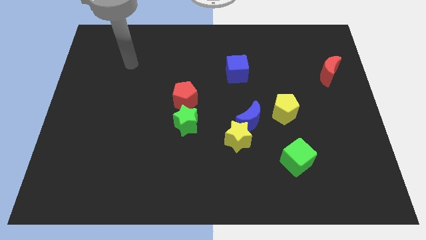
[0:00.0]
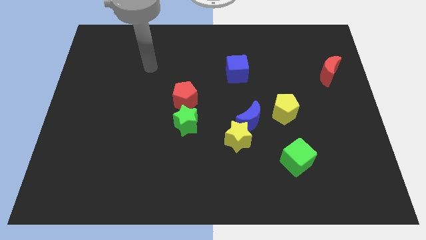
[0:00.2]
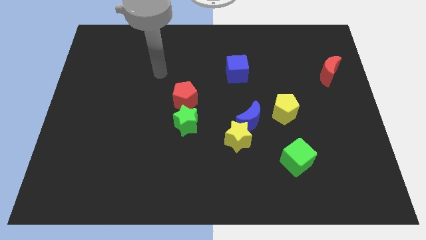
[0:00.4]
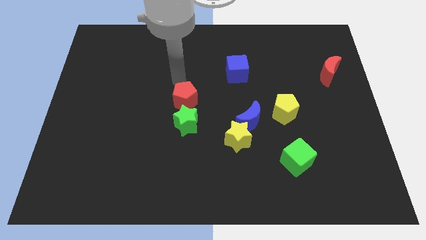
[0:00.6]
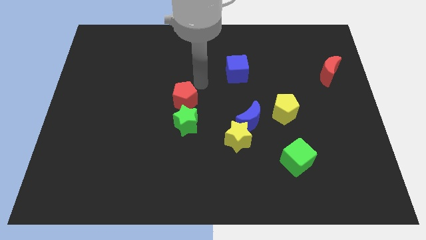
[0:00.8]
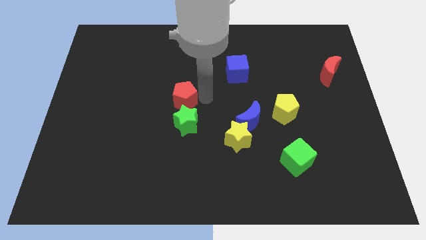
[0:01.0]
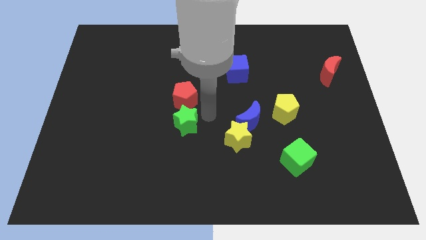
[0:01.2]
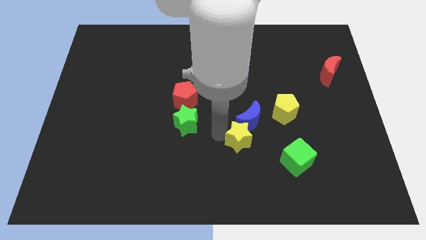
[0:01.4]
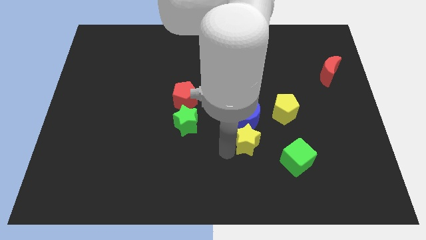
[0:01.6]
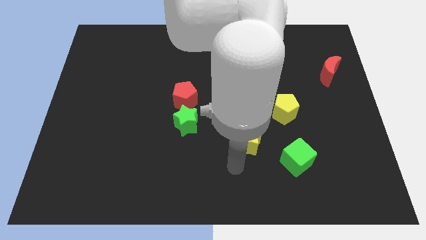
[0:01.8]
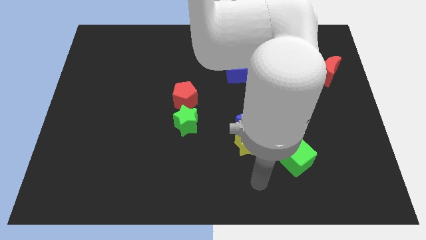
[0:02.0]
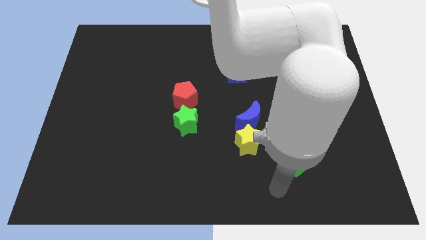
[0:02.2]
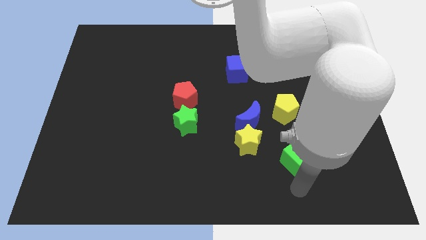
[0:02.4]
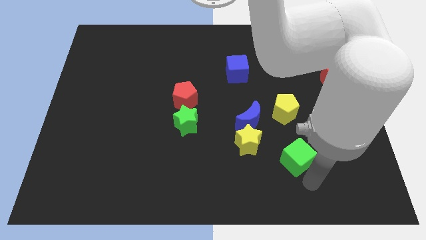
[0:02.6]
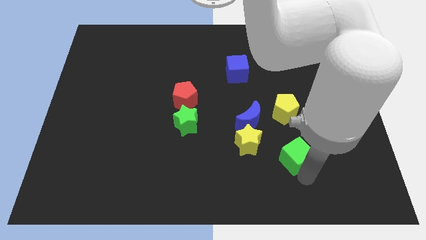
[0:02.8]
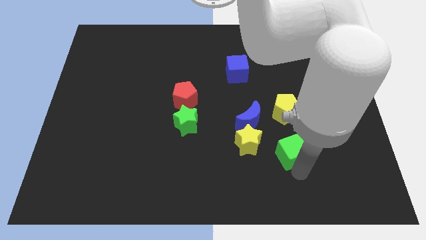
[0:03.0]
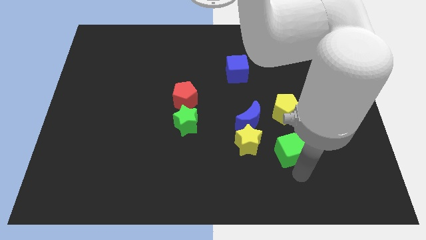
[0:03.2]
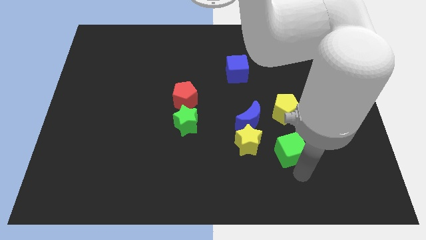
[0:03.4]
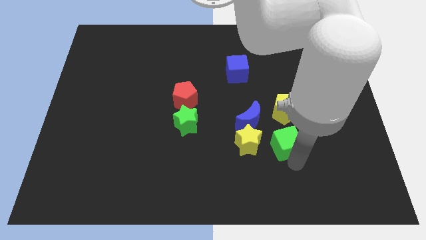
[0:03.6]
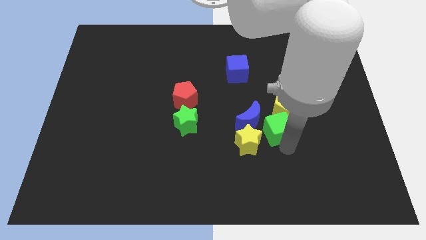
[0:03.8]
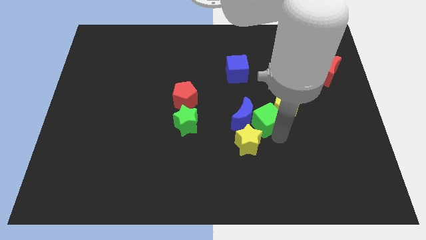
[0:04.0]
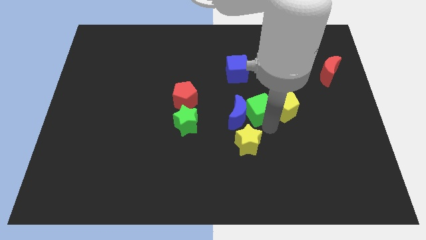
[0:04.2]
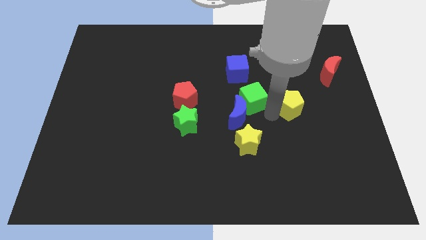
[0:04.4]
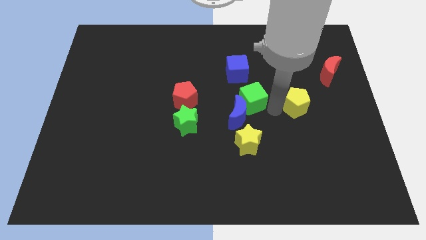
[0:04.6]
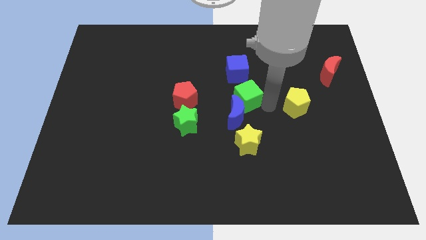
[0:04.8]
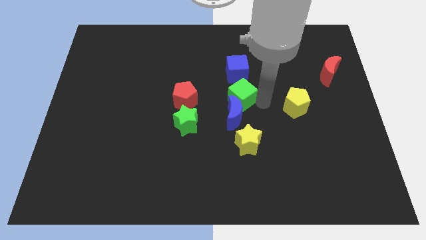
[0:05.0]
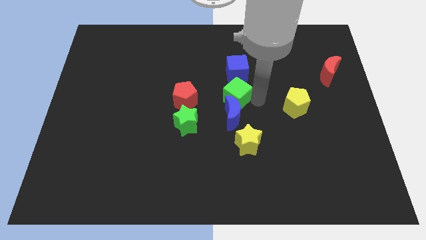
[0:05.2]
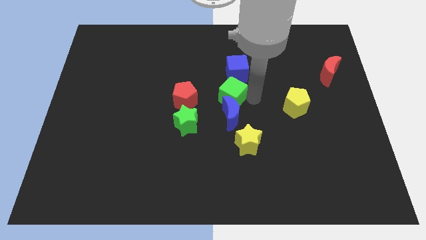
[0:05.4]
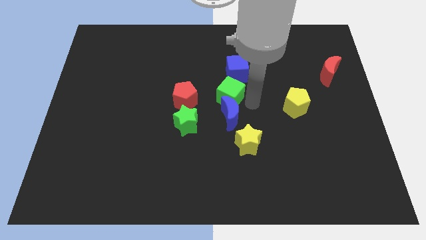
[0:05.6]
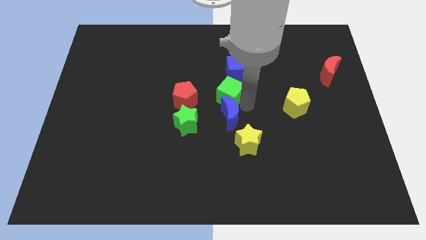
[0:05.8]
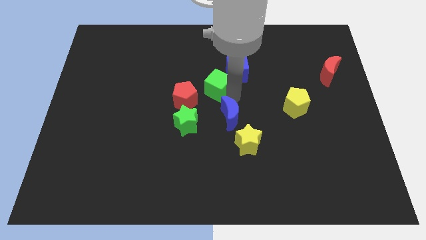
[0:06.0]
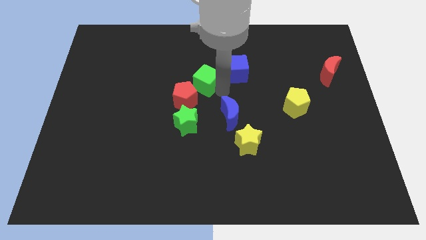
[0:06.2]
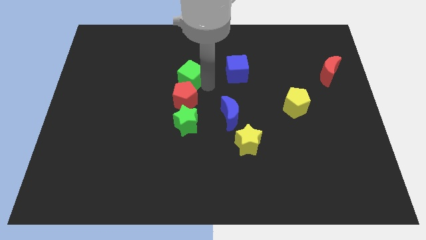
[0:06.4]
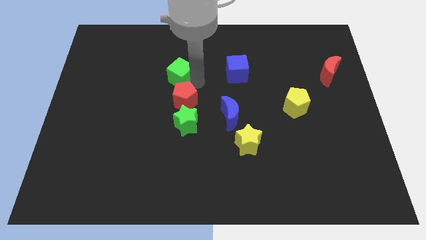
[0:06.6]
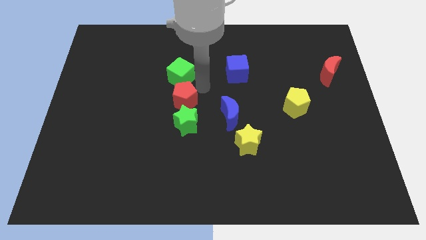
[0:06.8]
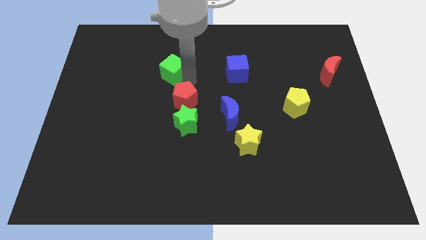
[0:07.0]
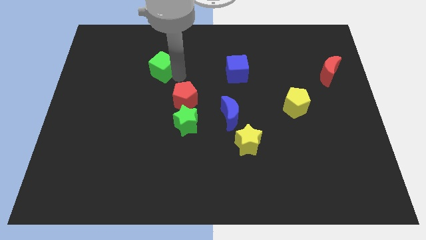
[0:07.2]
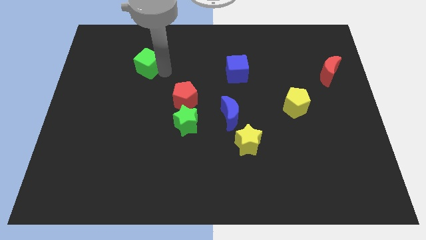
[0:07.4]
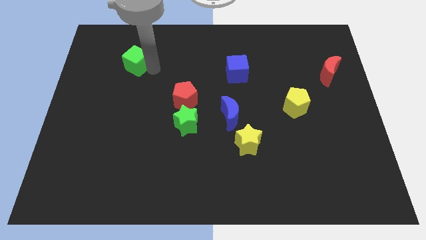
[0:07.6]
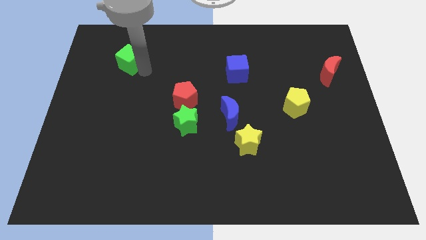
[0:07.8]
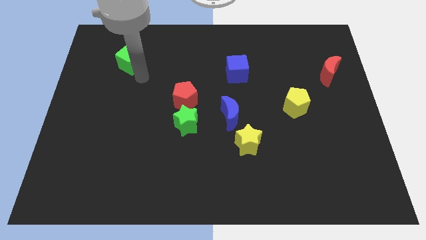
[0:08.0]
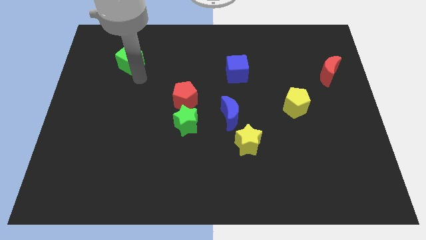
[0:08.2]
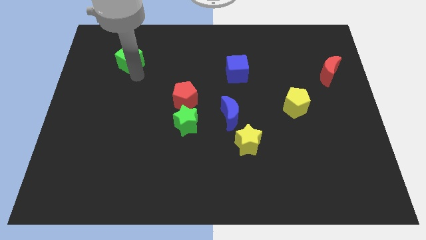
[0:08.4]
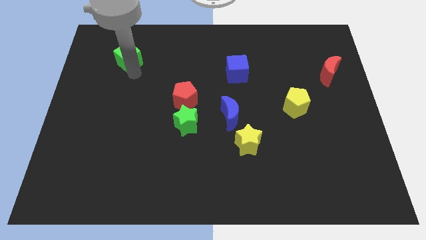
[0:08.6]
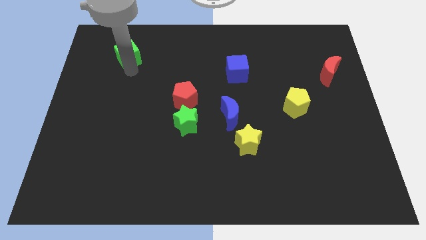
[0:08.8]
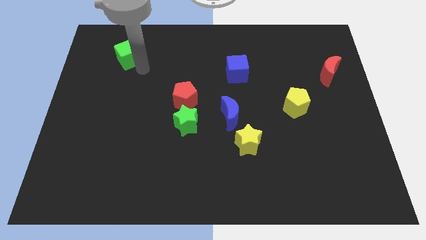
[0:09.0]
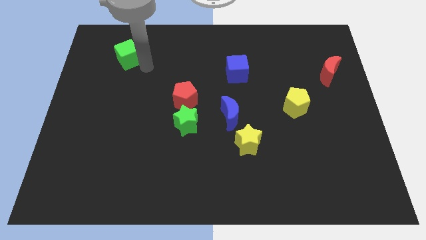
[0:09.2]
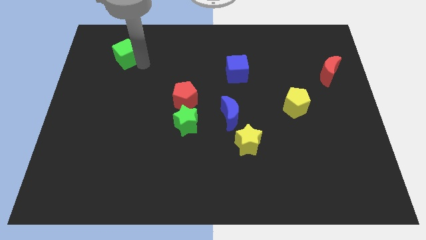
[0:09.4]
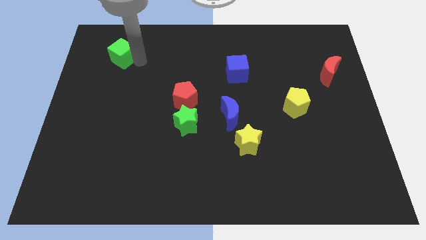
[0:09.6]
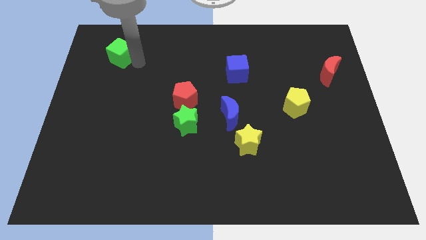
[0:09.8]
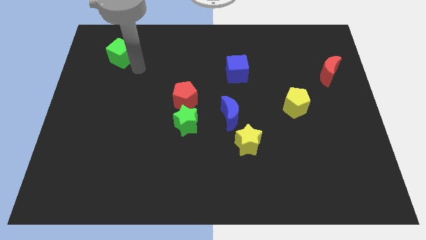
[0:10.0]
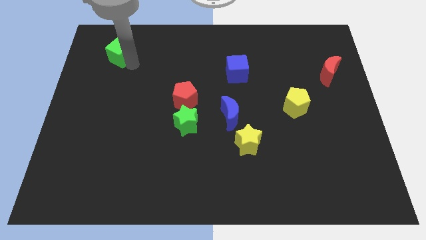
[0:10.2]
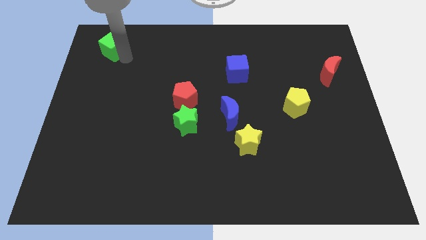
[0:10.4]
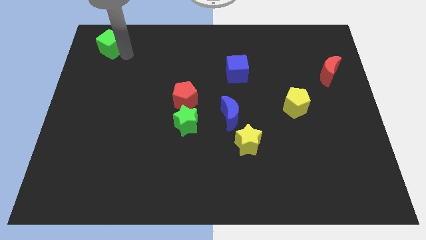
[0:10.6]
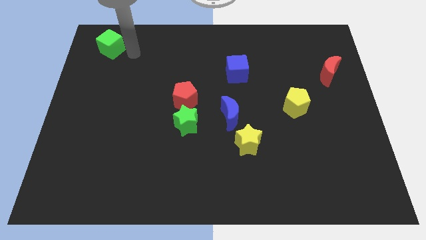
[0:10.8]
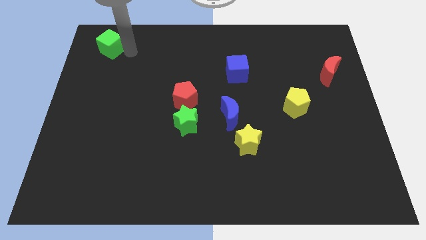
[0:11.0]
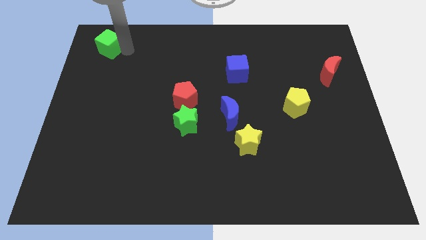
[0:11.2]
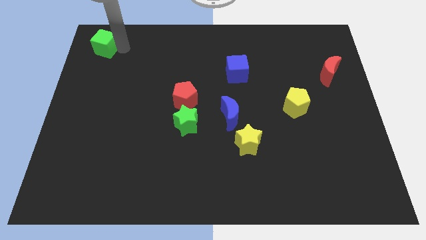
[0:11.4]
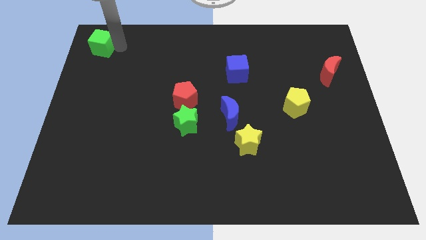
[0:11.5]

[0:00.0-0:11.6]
move the green cube to the top left
